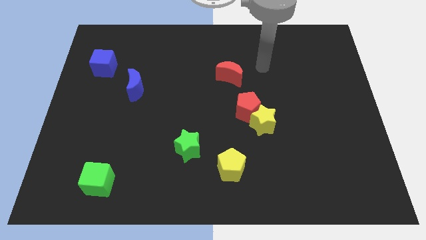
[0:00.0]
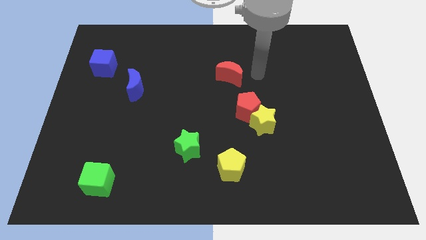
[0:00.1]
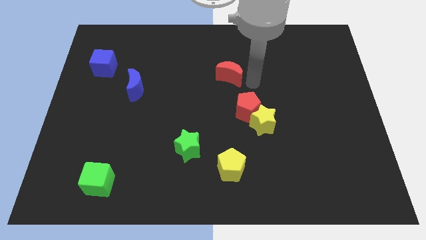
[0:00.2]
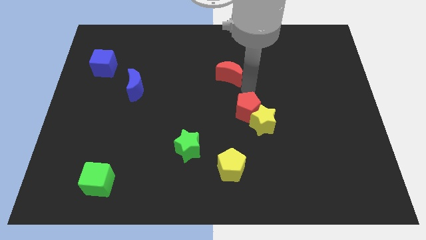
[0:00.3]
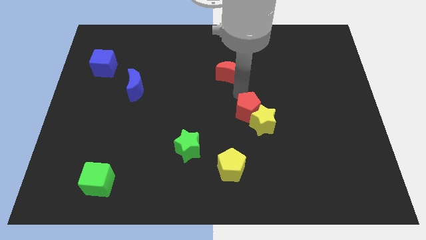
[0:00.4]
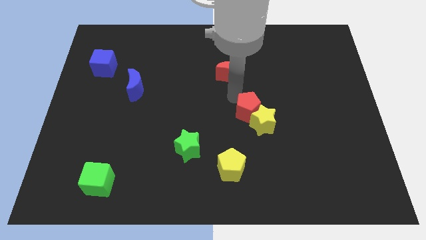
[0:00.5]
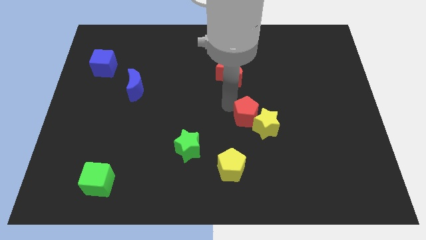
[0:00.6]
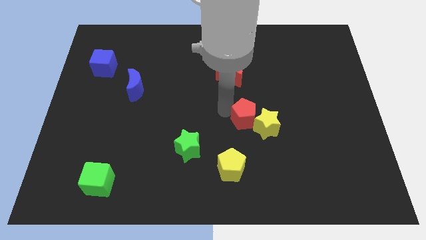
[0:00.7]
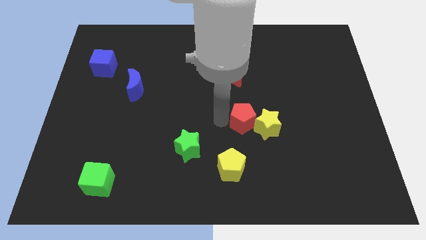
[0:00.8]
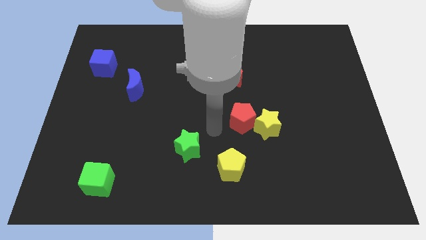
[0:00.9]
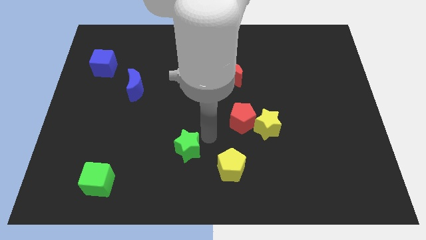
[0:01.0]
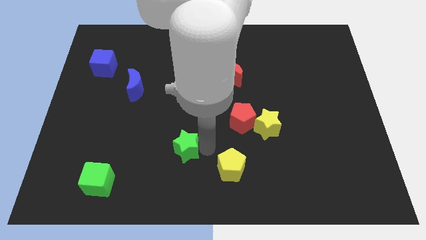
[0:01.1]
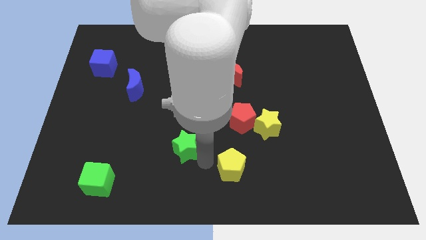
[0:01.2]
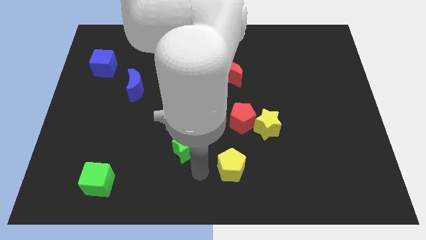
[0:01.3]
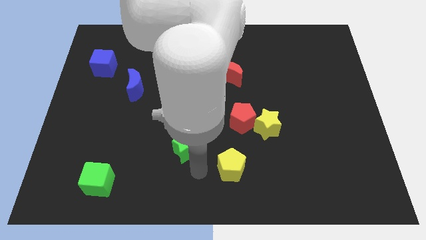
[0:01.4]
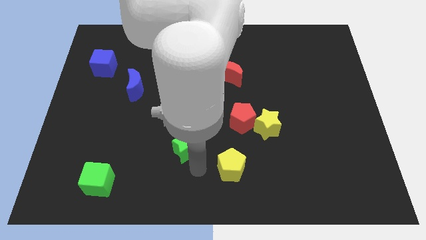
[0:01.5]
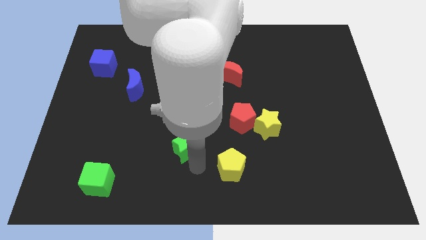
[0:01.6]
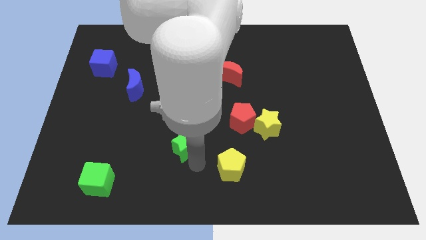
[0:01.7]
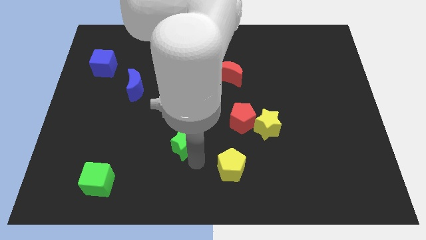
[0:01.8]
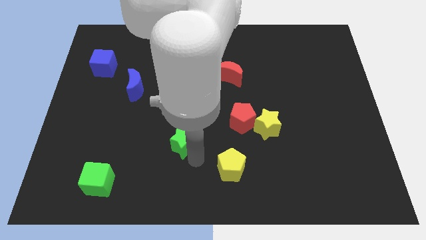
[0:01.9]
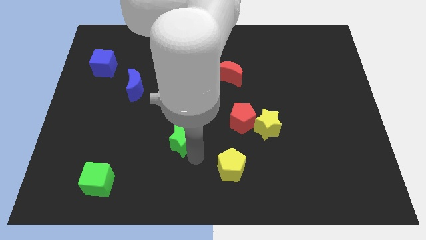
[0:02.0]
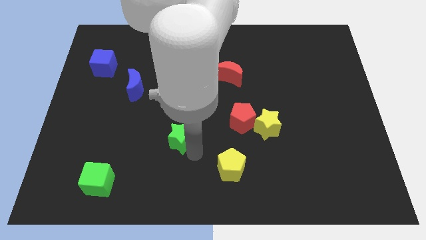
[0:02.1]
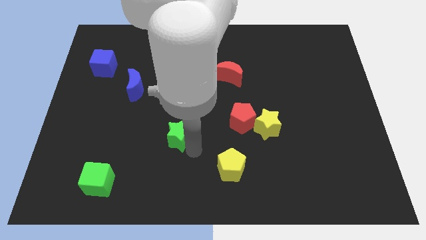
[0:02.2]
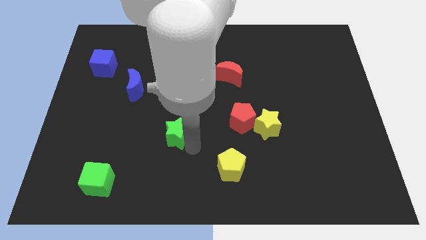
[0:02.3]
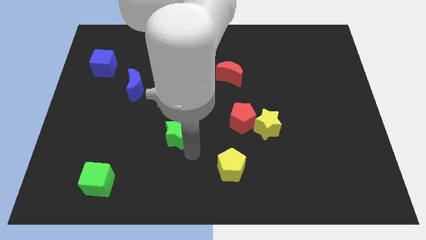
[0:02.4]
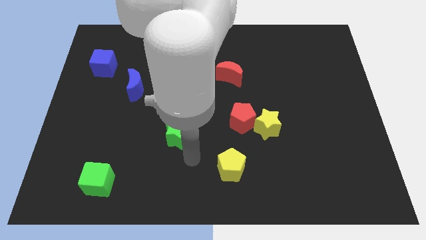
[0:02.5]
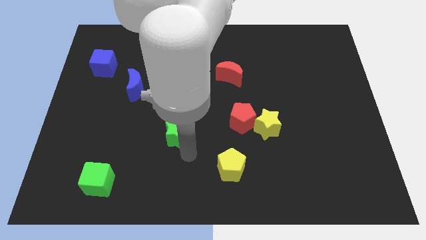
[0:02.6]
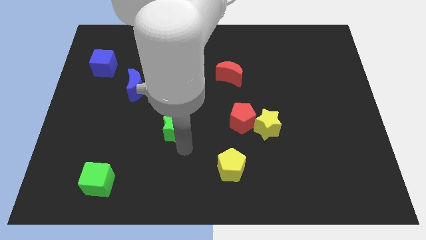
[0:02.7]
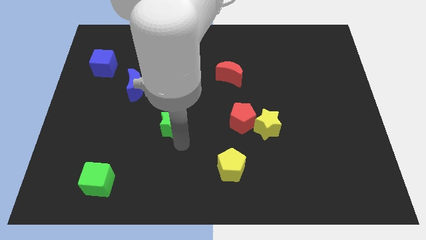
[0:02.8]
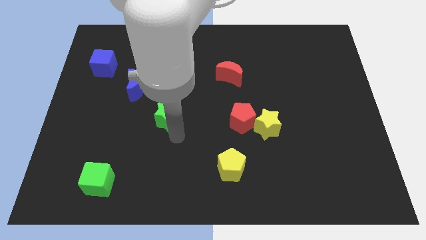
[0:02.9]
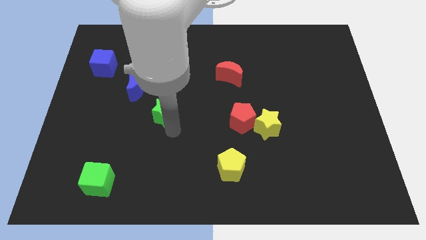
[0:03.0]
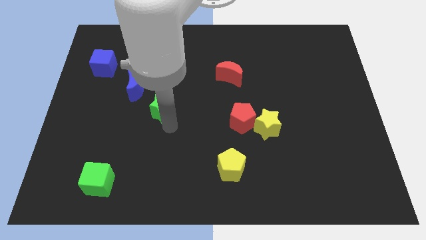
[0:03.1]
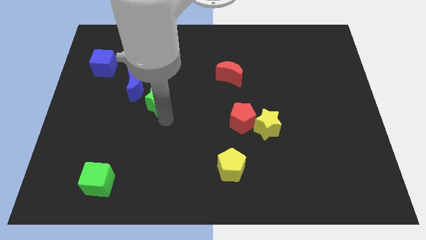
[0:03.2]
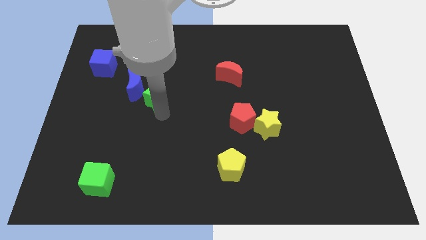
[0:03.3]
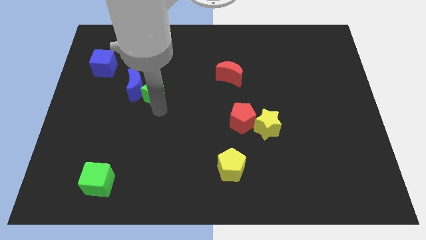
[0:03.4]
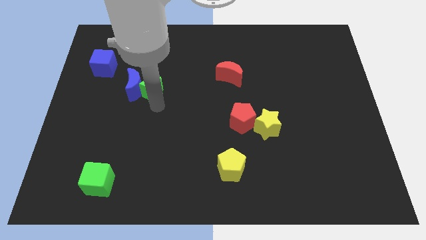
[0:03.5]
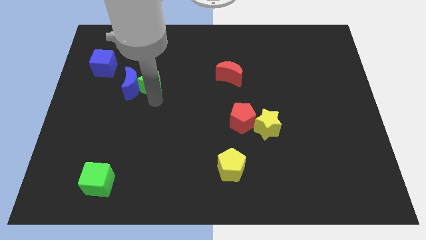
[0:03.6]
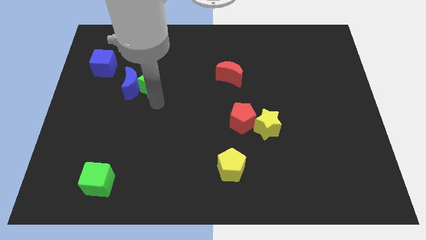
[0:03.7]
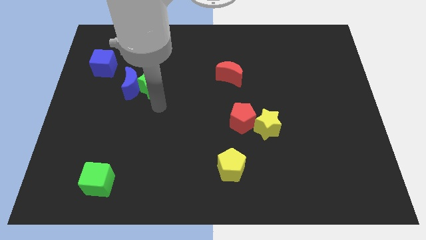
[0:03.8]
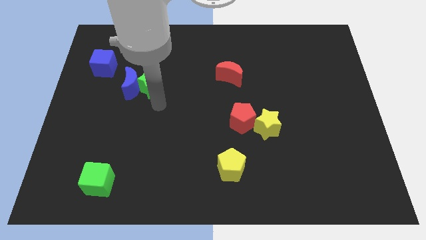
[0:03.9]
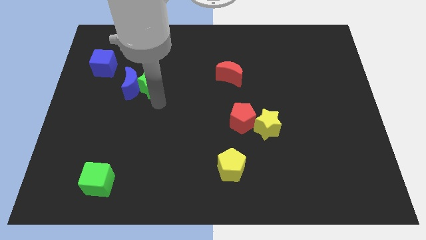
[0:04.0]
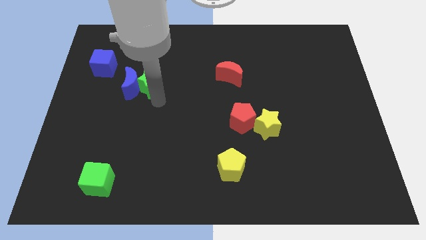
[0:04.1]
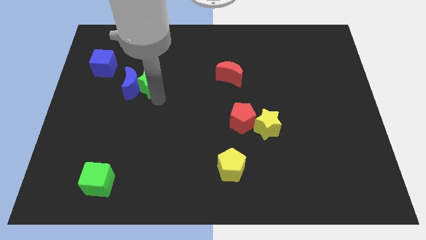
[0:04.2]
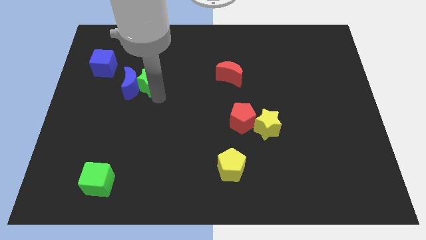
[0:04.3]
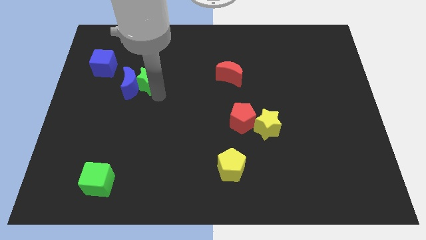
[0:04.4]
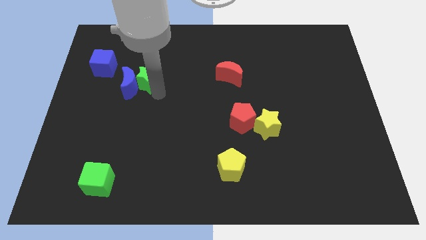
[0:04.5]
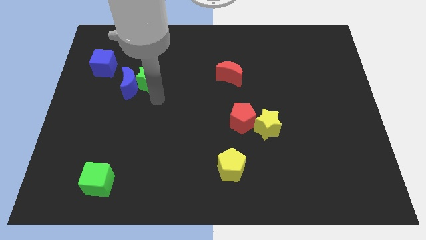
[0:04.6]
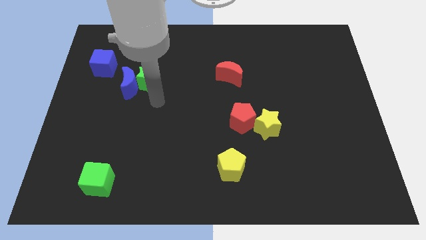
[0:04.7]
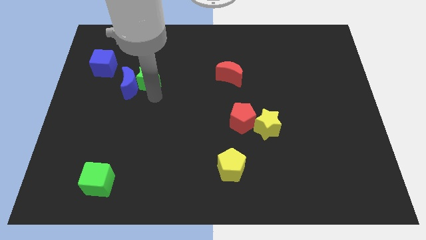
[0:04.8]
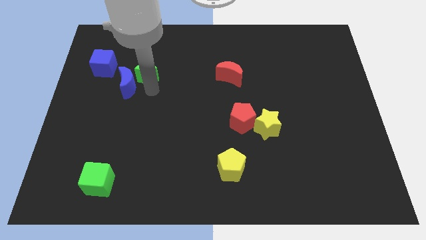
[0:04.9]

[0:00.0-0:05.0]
move the green star to the top of the blue moon
